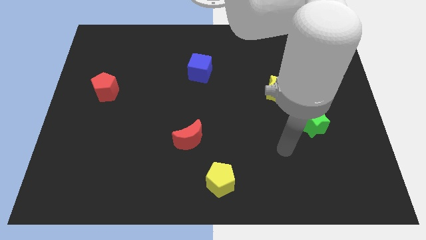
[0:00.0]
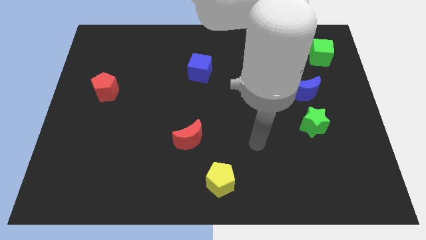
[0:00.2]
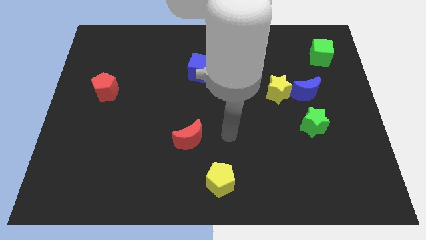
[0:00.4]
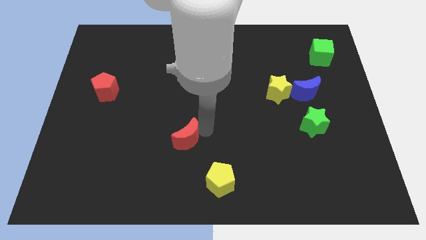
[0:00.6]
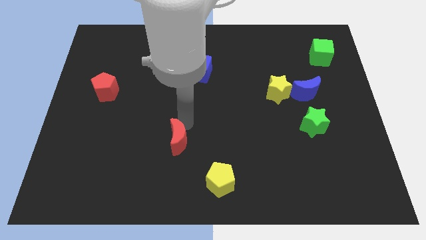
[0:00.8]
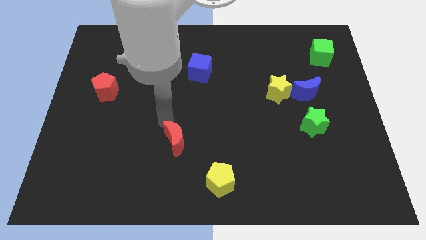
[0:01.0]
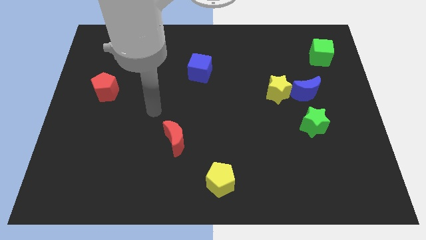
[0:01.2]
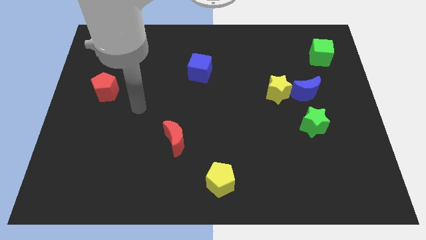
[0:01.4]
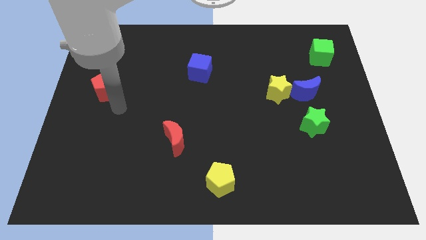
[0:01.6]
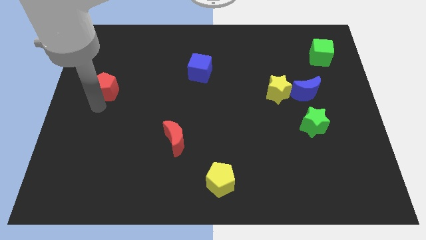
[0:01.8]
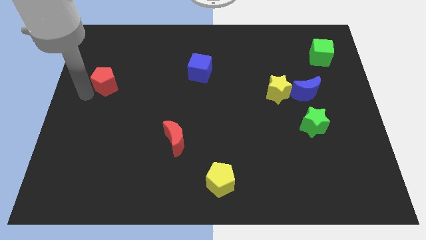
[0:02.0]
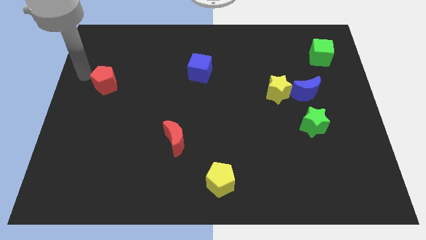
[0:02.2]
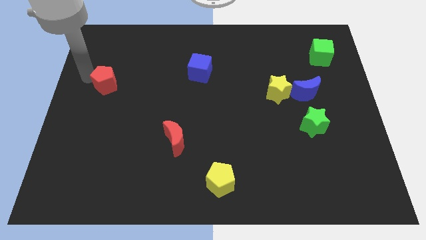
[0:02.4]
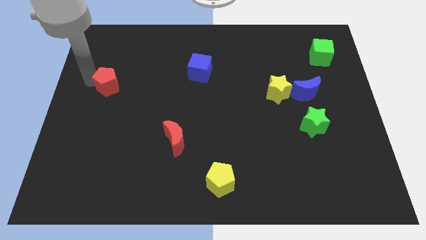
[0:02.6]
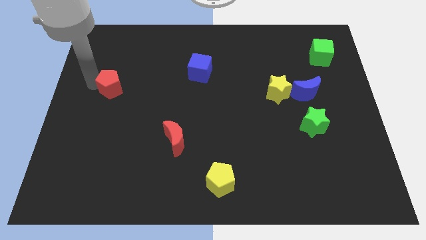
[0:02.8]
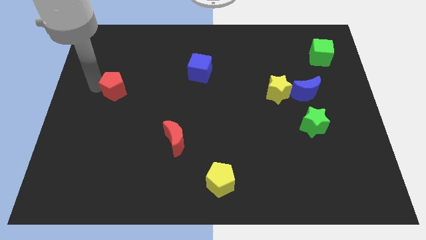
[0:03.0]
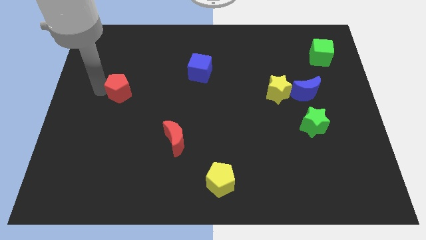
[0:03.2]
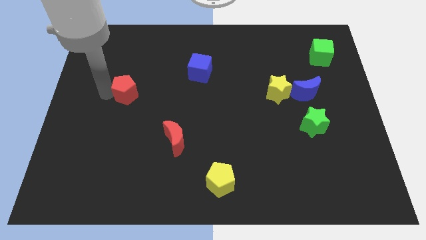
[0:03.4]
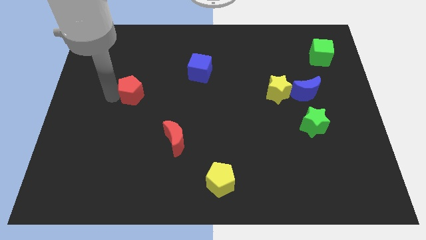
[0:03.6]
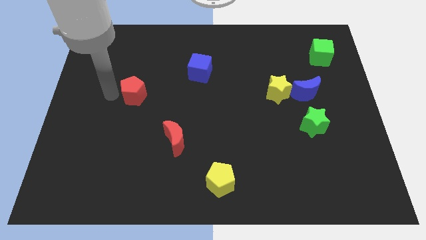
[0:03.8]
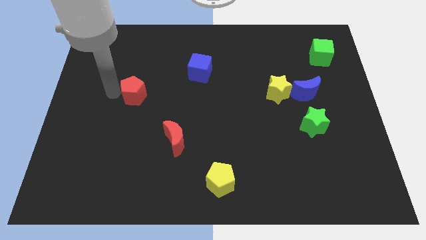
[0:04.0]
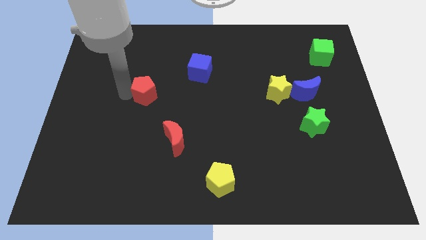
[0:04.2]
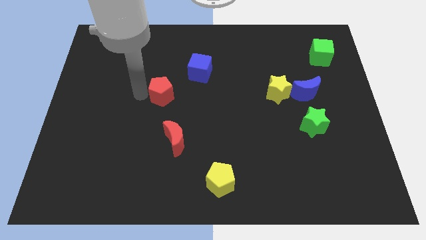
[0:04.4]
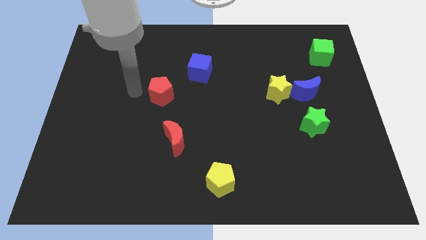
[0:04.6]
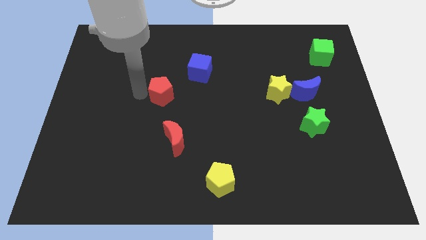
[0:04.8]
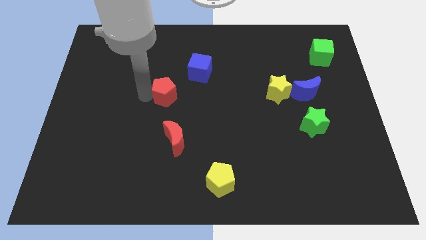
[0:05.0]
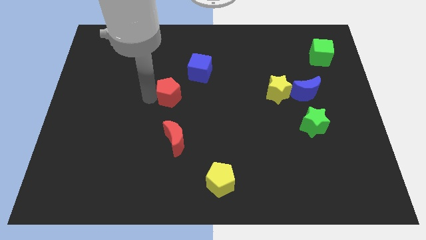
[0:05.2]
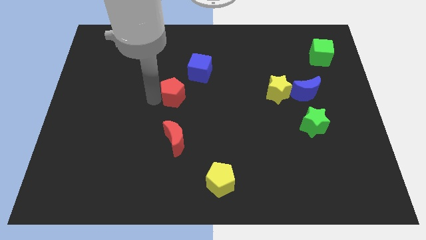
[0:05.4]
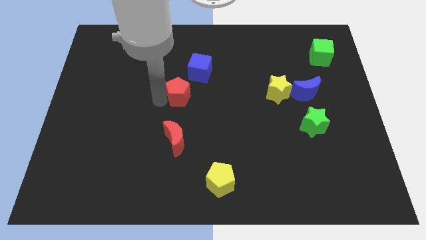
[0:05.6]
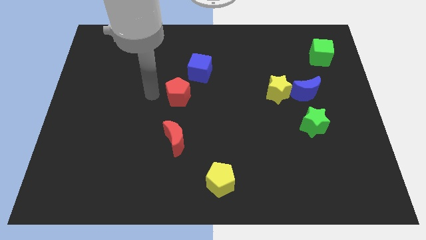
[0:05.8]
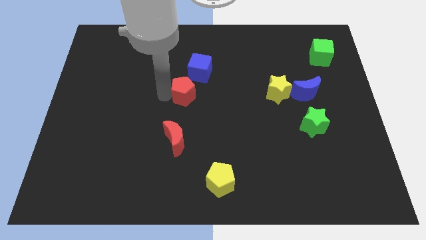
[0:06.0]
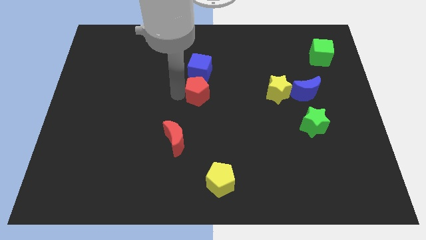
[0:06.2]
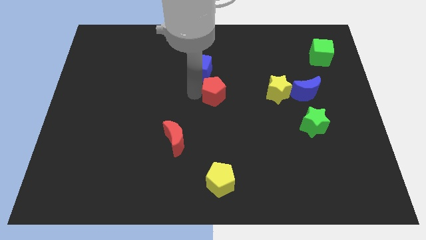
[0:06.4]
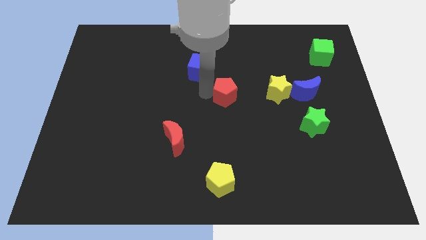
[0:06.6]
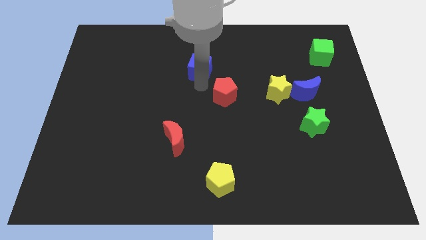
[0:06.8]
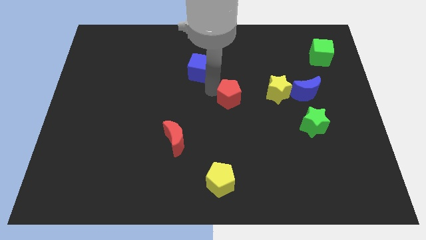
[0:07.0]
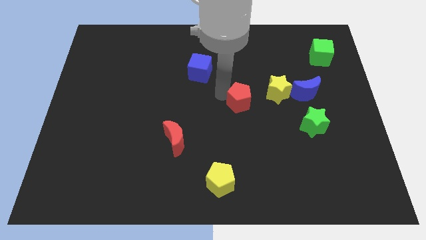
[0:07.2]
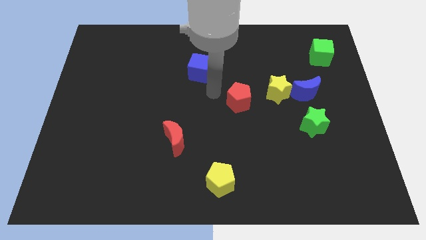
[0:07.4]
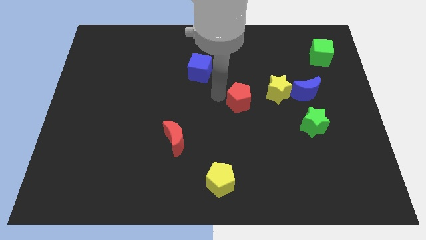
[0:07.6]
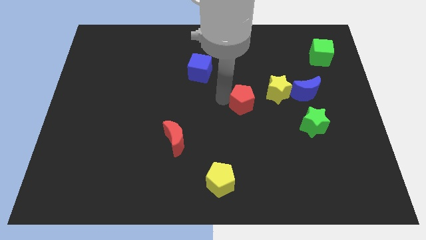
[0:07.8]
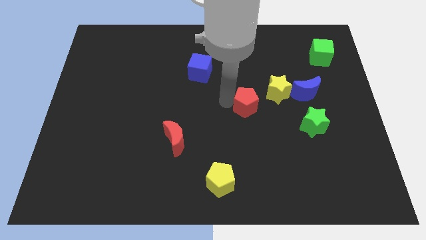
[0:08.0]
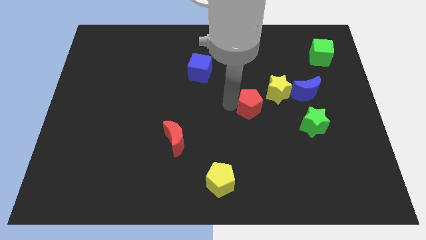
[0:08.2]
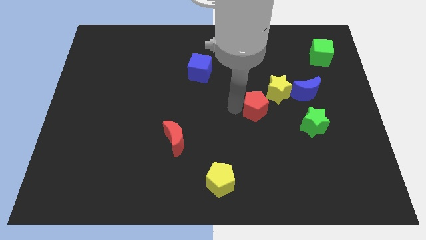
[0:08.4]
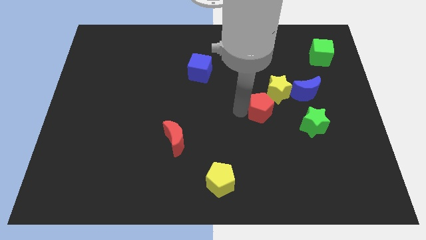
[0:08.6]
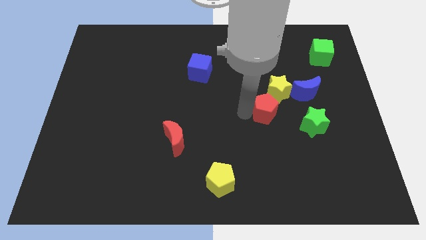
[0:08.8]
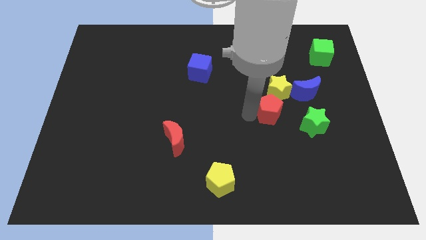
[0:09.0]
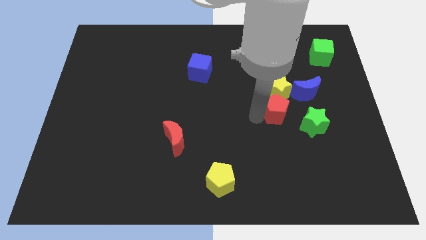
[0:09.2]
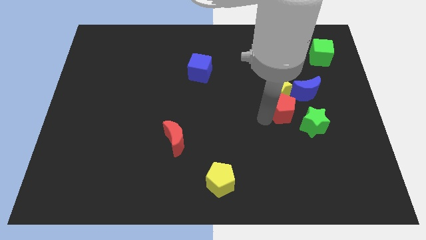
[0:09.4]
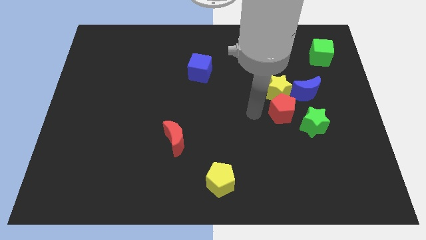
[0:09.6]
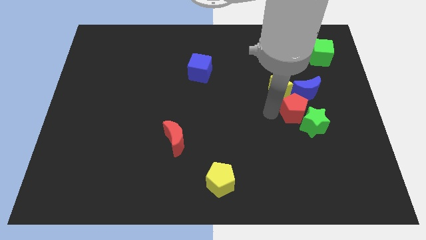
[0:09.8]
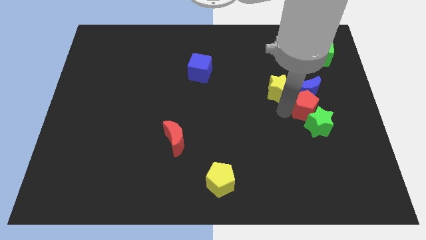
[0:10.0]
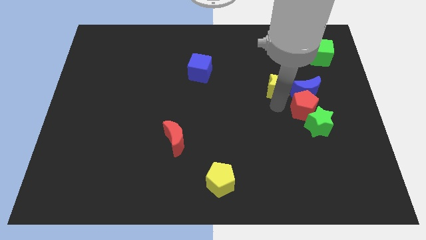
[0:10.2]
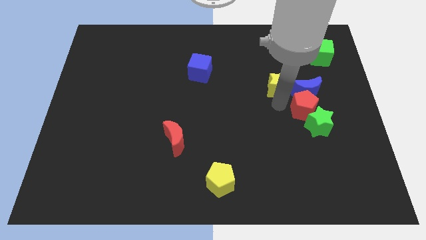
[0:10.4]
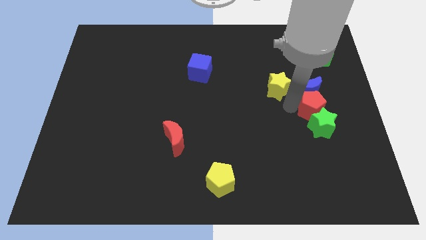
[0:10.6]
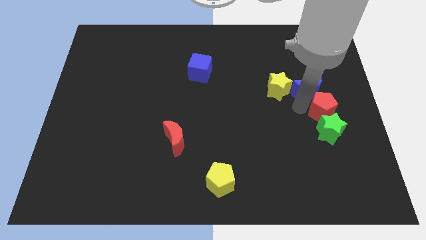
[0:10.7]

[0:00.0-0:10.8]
move the red pentagon to the right side of the board

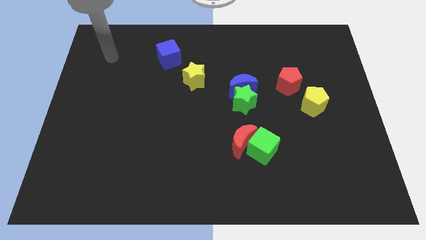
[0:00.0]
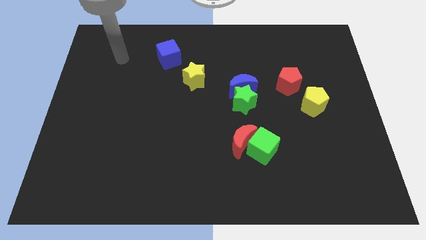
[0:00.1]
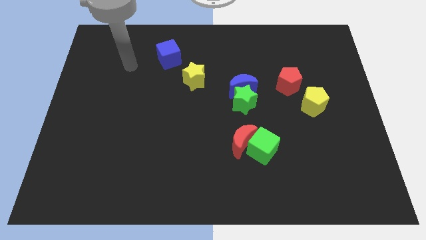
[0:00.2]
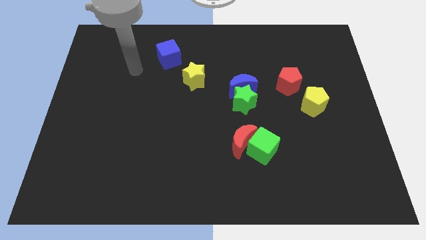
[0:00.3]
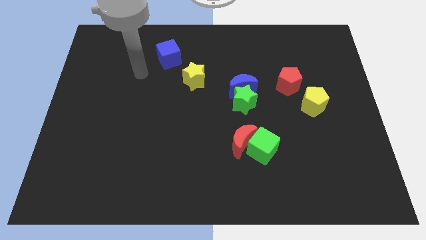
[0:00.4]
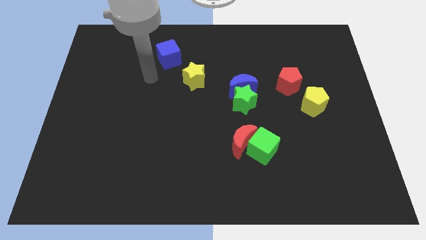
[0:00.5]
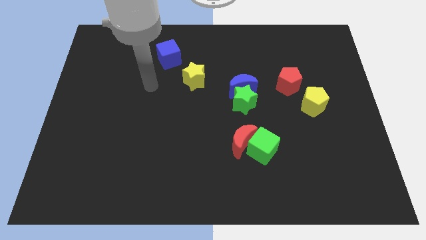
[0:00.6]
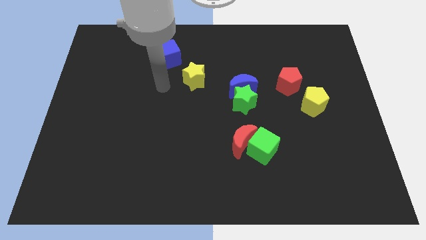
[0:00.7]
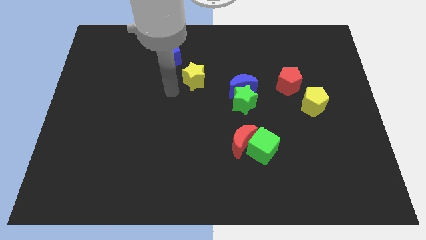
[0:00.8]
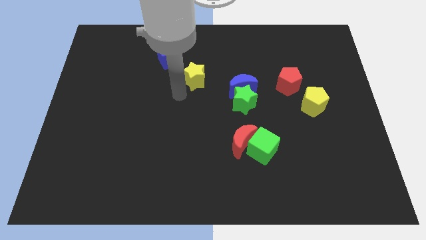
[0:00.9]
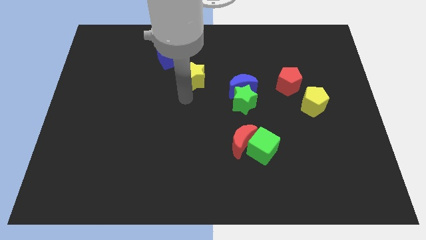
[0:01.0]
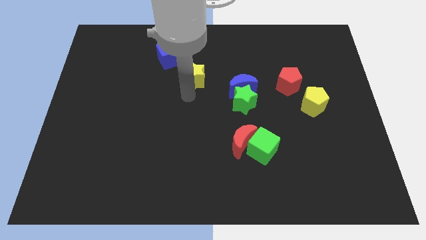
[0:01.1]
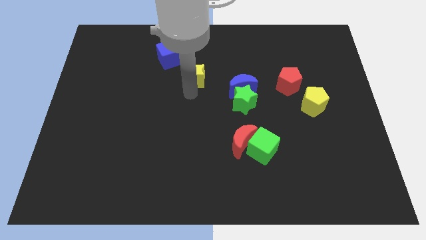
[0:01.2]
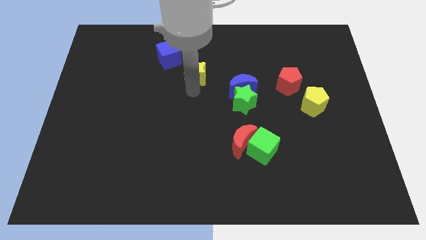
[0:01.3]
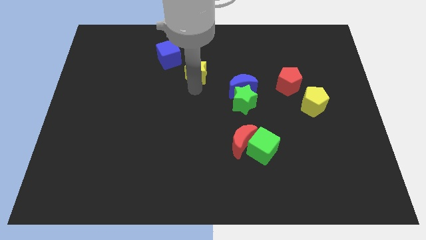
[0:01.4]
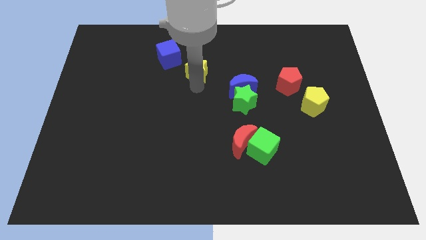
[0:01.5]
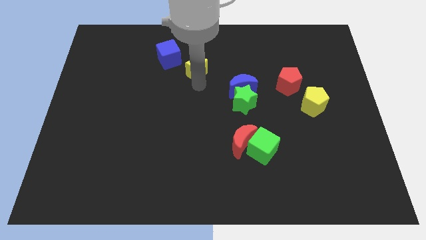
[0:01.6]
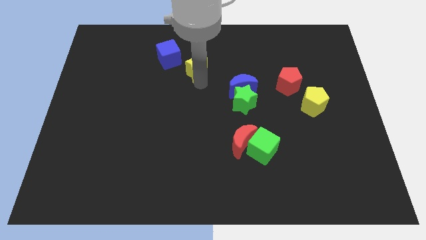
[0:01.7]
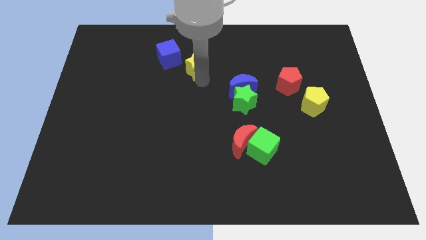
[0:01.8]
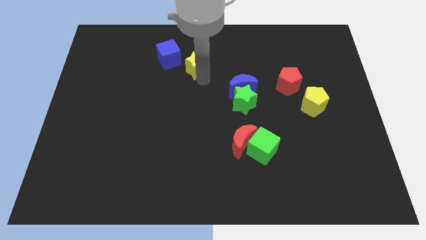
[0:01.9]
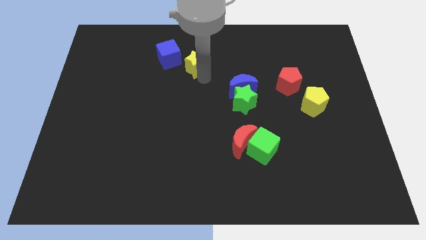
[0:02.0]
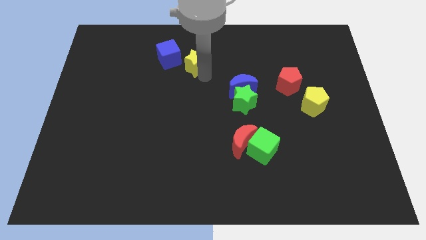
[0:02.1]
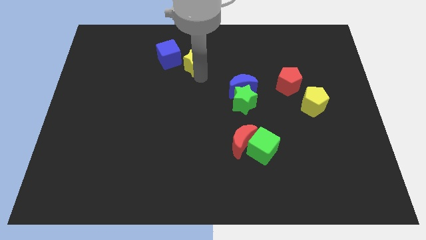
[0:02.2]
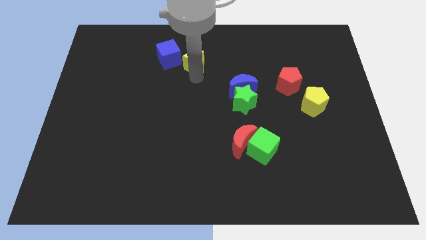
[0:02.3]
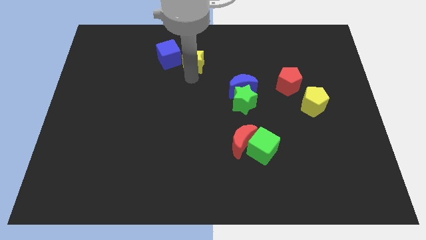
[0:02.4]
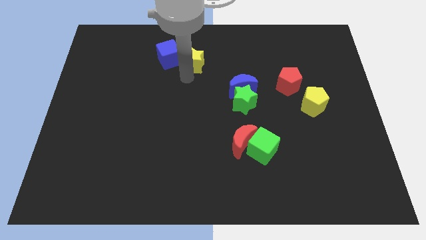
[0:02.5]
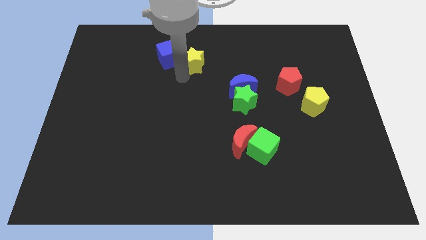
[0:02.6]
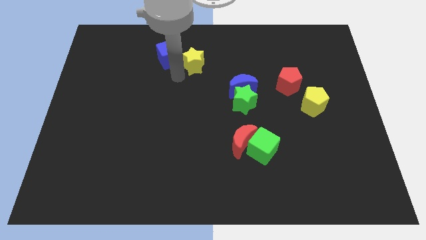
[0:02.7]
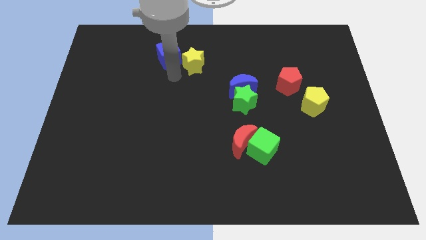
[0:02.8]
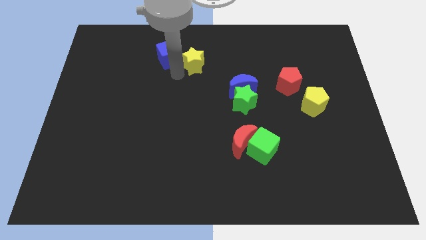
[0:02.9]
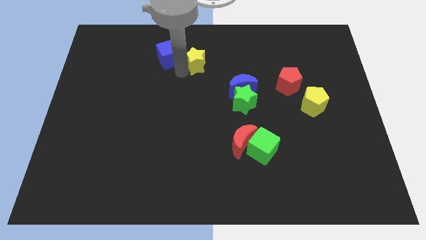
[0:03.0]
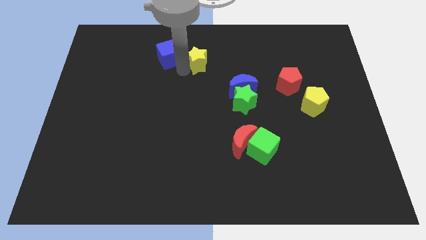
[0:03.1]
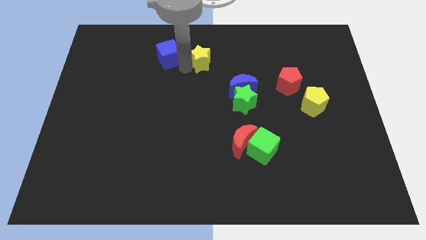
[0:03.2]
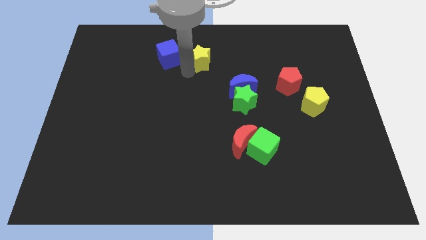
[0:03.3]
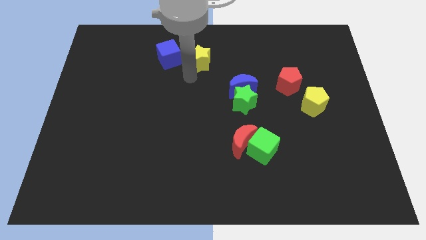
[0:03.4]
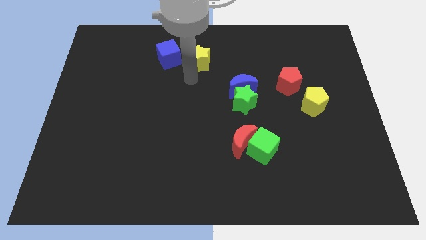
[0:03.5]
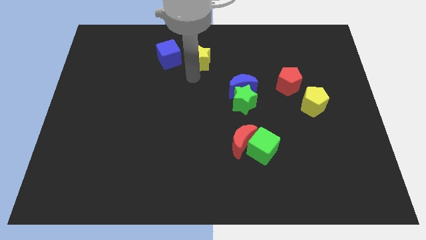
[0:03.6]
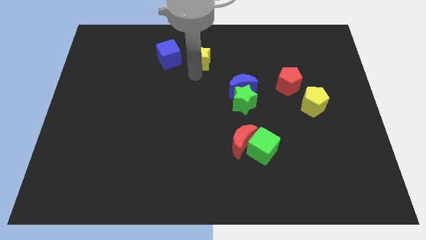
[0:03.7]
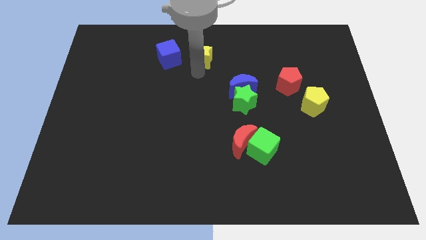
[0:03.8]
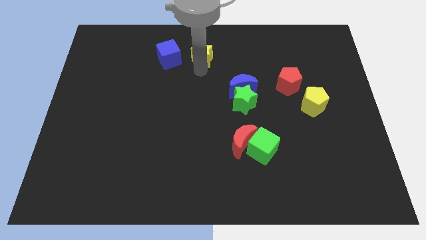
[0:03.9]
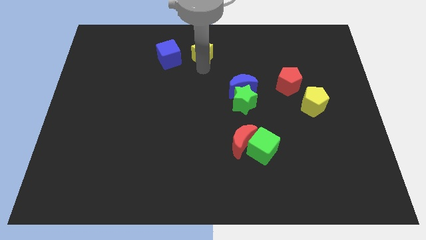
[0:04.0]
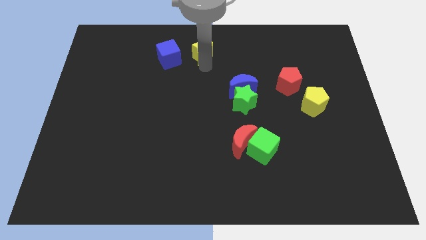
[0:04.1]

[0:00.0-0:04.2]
slide the yellow star to the top side
